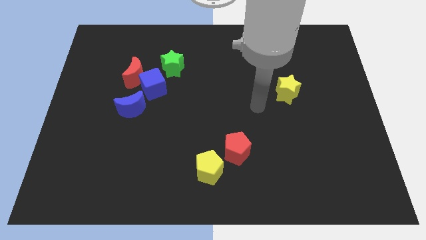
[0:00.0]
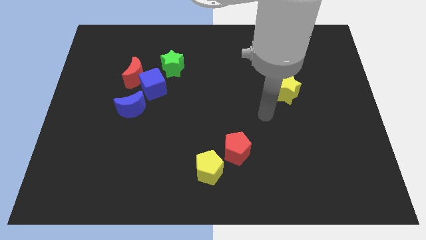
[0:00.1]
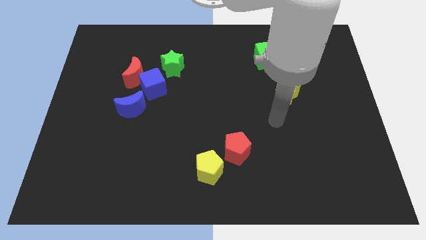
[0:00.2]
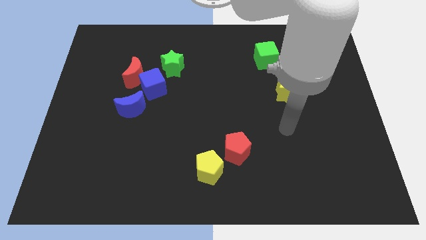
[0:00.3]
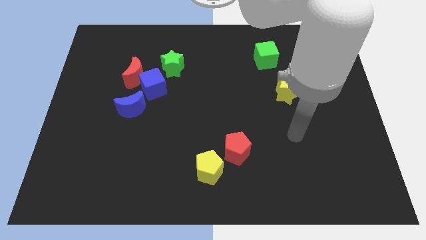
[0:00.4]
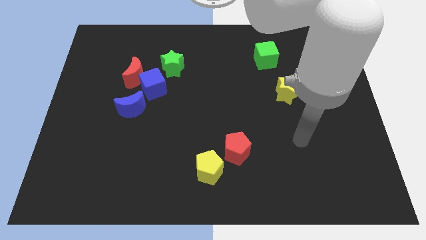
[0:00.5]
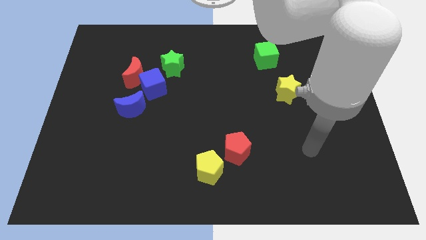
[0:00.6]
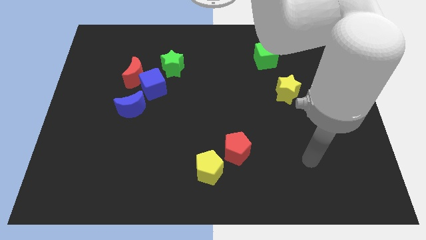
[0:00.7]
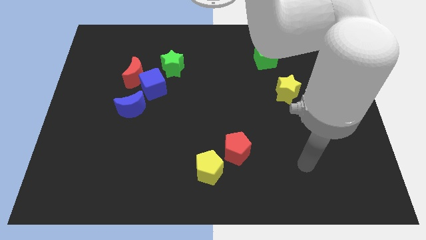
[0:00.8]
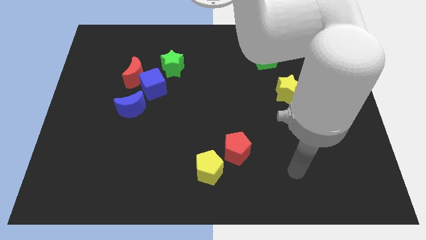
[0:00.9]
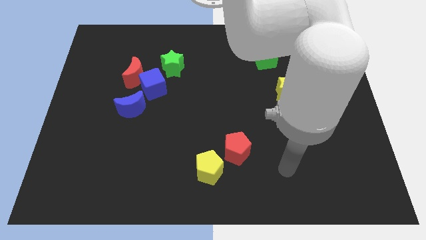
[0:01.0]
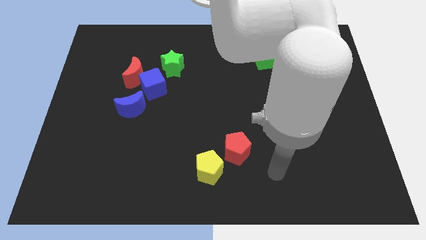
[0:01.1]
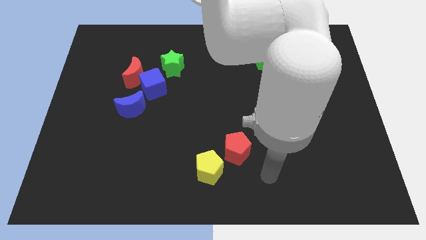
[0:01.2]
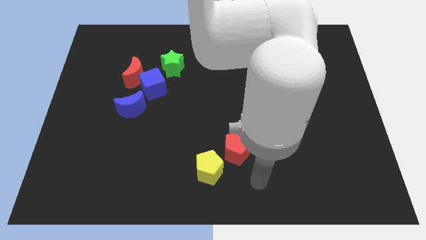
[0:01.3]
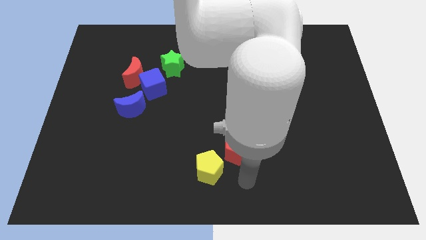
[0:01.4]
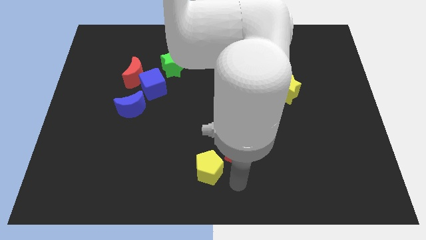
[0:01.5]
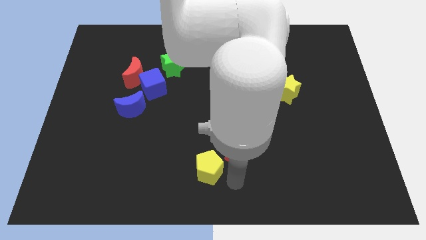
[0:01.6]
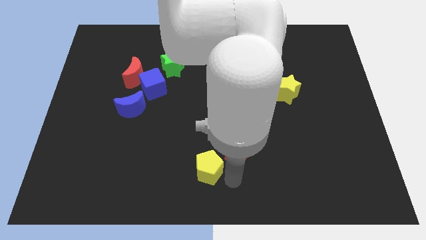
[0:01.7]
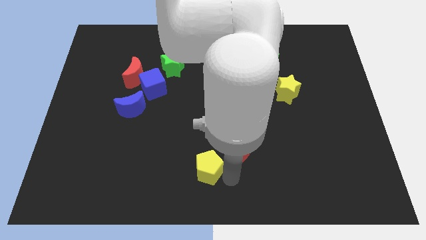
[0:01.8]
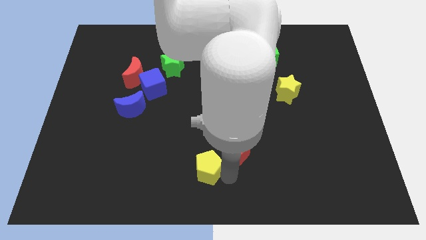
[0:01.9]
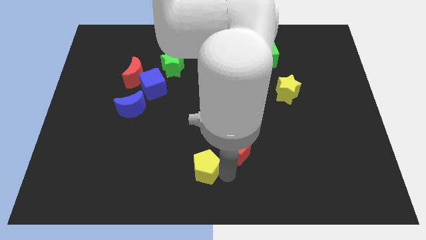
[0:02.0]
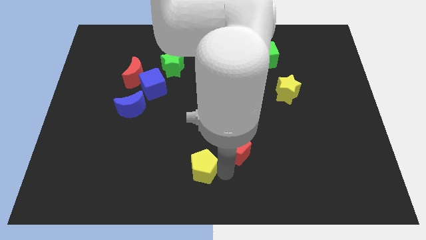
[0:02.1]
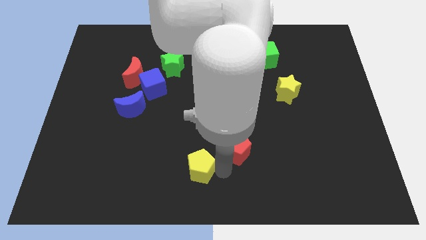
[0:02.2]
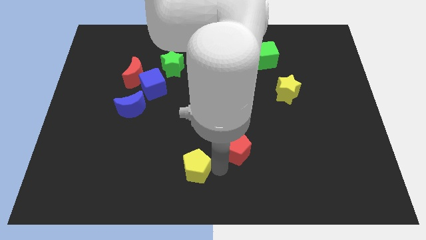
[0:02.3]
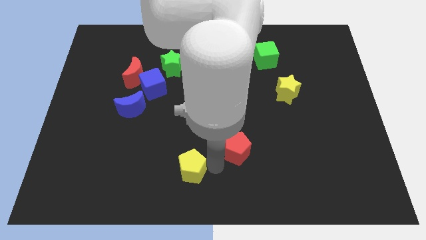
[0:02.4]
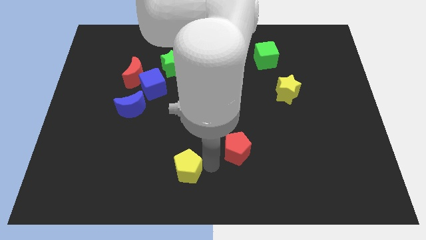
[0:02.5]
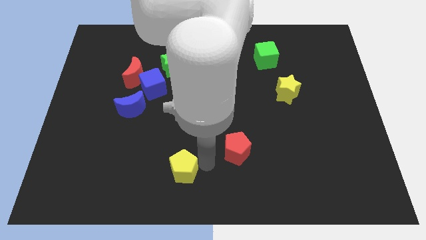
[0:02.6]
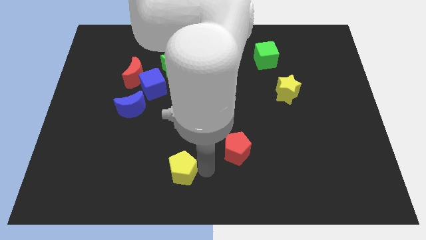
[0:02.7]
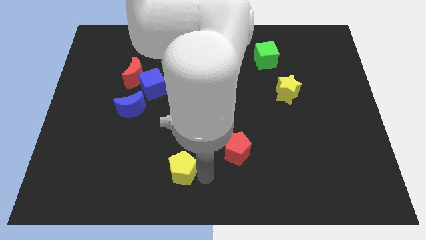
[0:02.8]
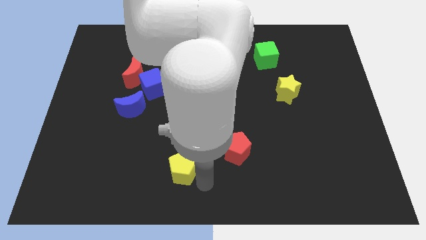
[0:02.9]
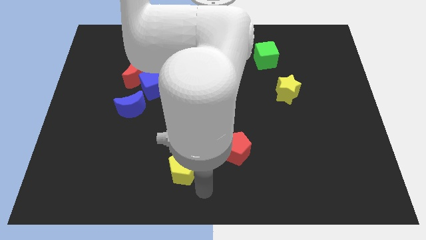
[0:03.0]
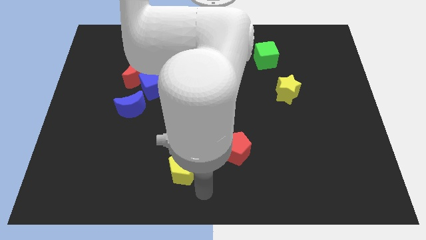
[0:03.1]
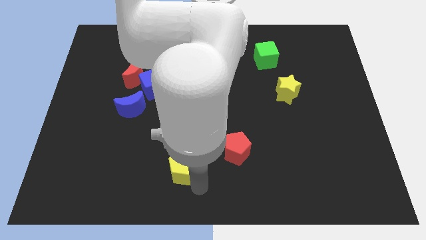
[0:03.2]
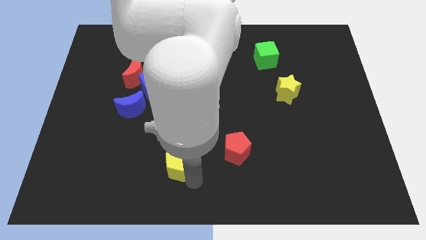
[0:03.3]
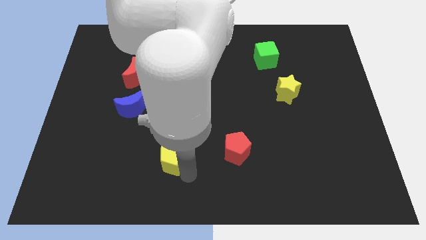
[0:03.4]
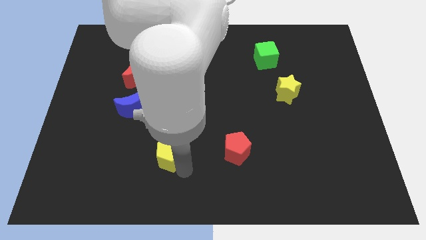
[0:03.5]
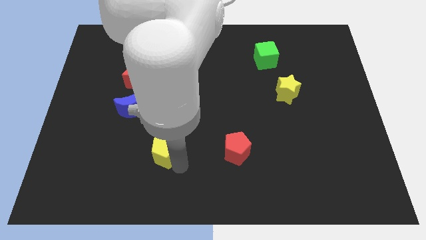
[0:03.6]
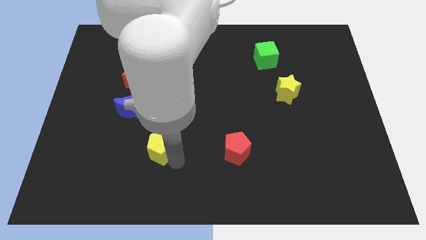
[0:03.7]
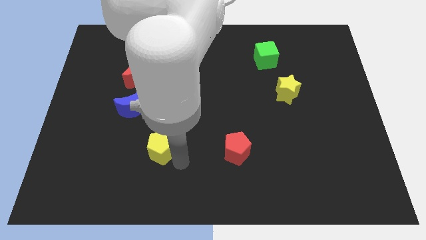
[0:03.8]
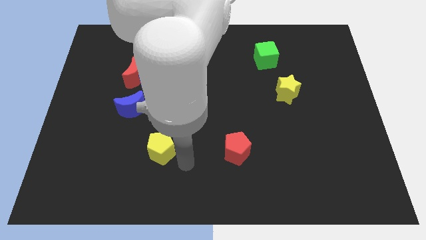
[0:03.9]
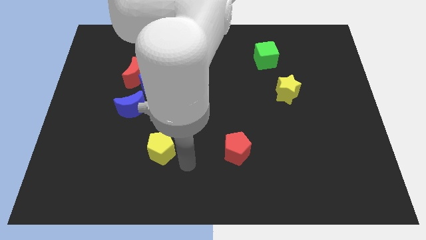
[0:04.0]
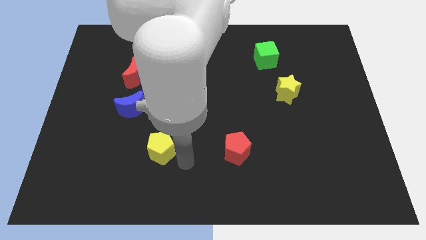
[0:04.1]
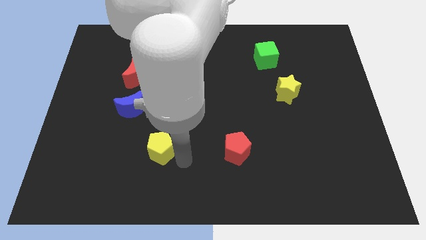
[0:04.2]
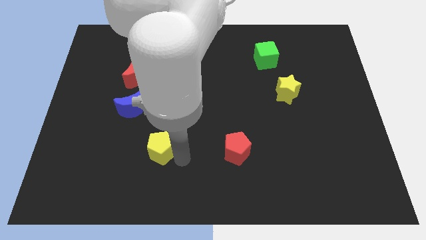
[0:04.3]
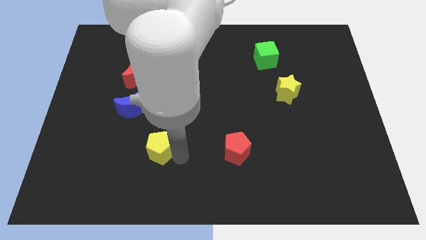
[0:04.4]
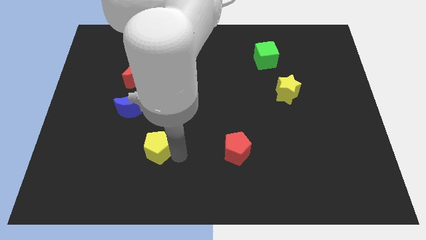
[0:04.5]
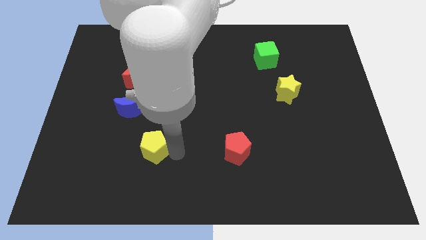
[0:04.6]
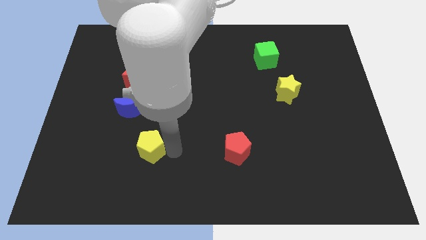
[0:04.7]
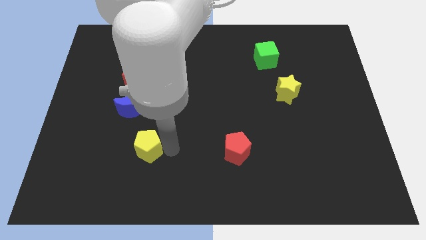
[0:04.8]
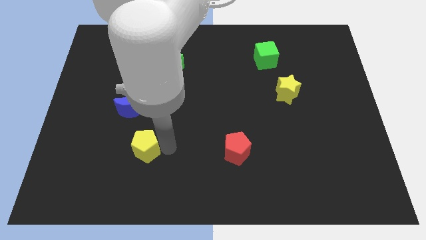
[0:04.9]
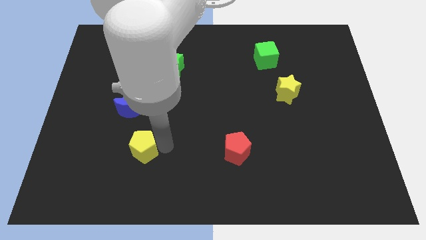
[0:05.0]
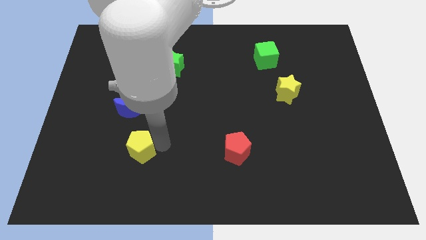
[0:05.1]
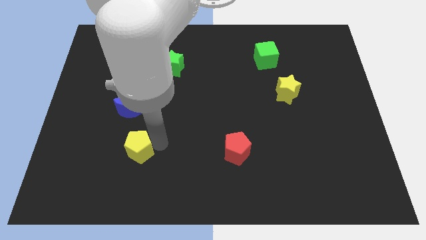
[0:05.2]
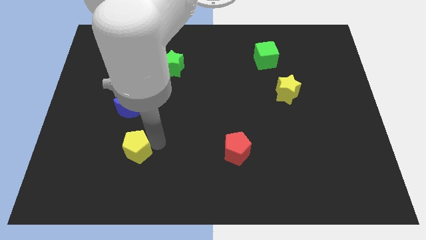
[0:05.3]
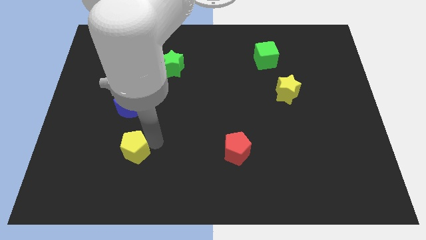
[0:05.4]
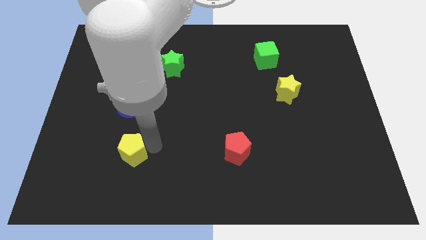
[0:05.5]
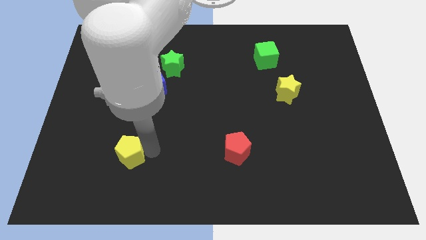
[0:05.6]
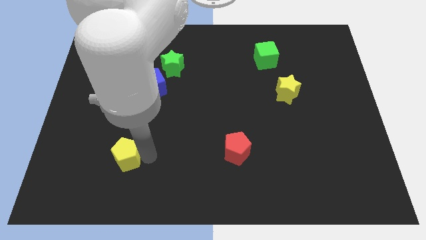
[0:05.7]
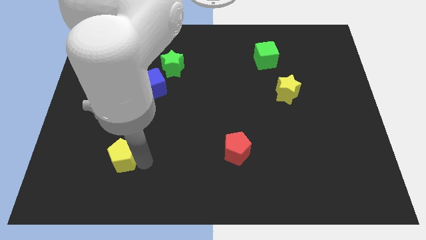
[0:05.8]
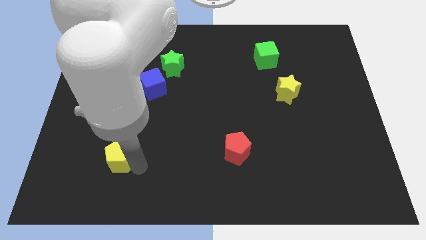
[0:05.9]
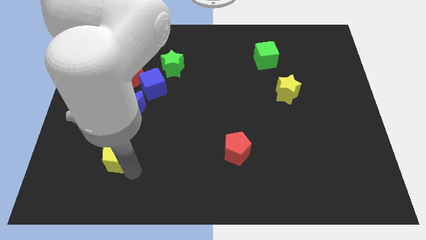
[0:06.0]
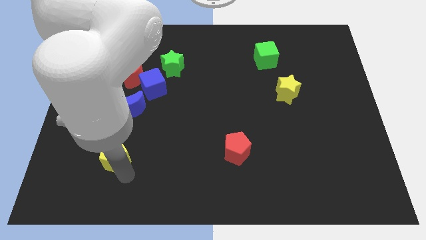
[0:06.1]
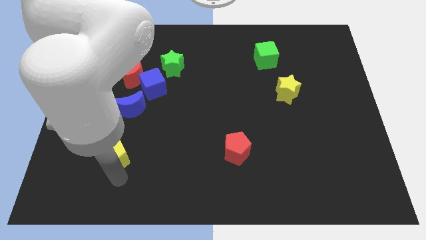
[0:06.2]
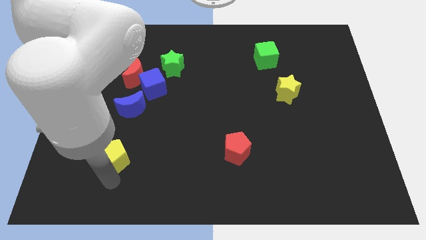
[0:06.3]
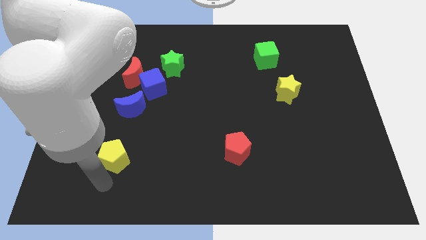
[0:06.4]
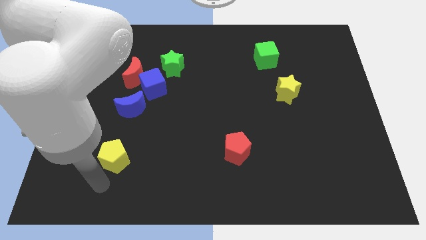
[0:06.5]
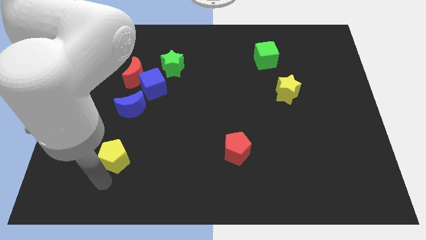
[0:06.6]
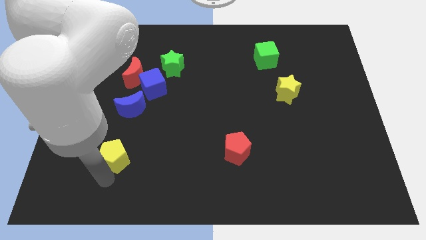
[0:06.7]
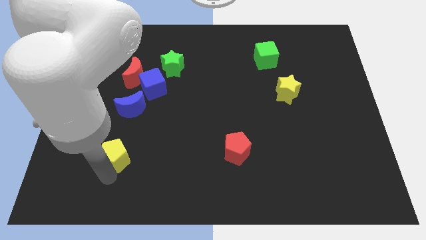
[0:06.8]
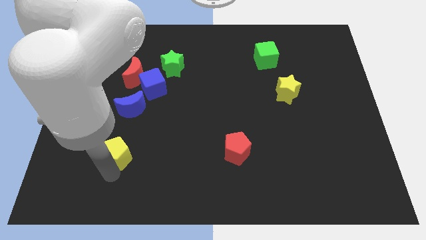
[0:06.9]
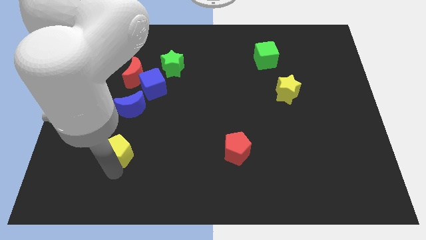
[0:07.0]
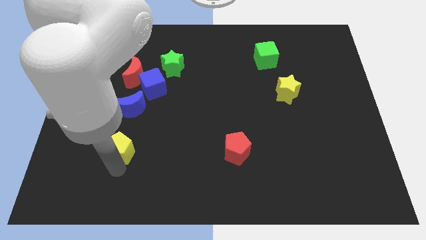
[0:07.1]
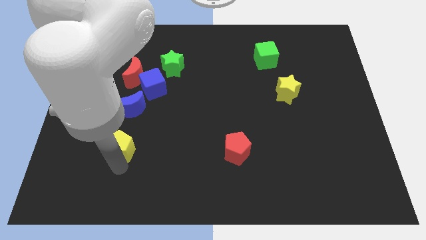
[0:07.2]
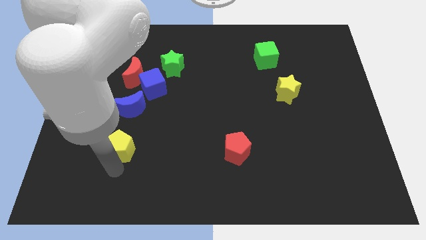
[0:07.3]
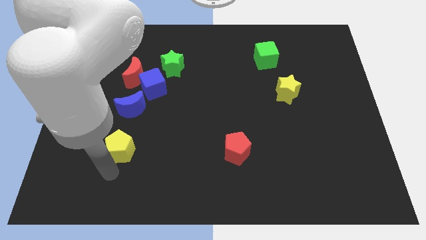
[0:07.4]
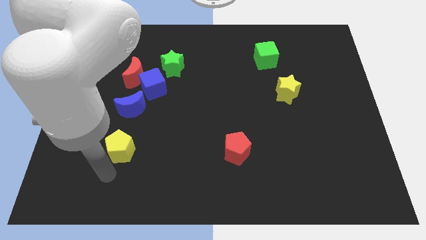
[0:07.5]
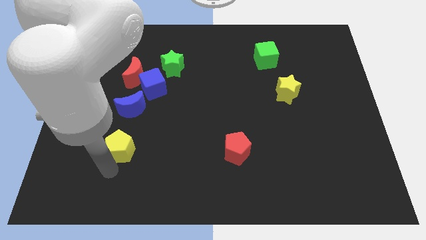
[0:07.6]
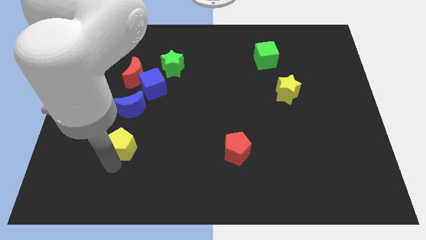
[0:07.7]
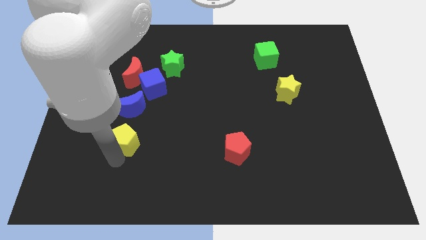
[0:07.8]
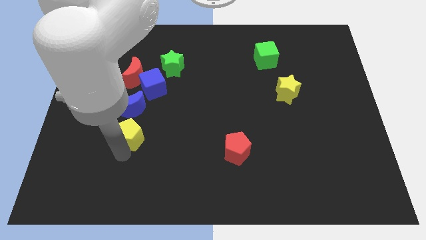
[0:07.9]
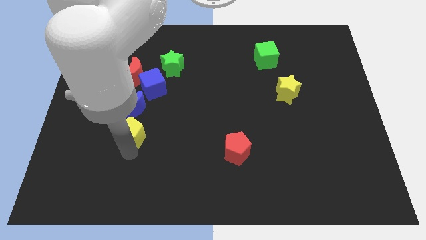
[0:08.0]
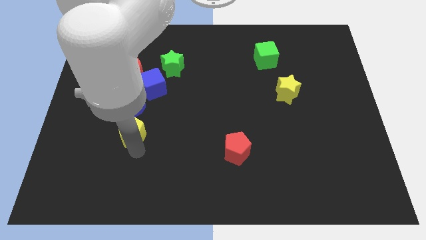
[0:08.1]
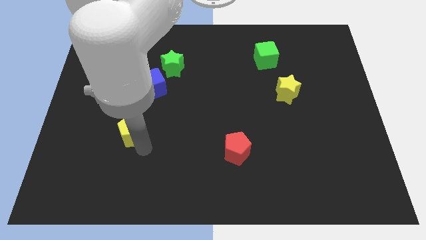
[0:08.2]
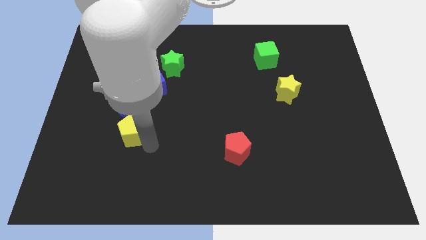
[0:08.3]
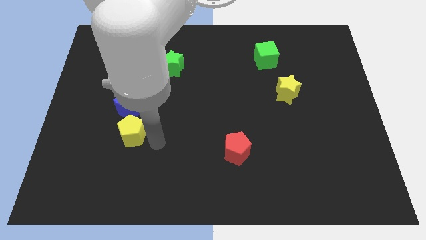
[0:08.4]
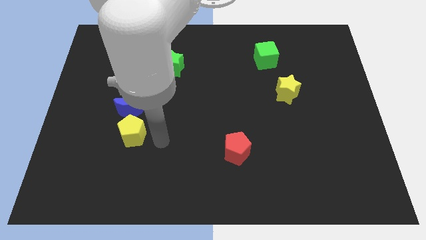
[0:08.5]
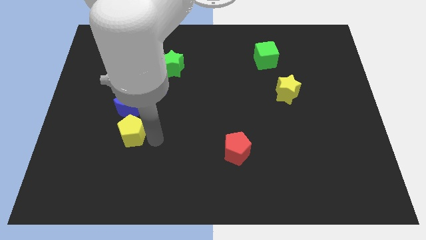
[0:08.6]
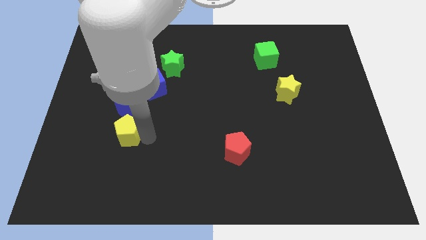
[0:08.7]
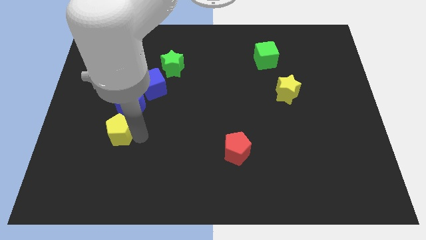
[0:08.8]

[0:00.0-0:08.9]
move the yellow pentagon to the bottom left side of the blue moon
